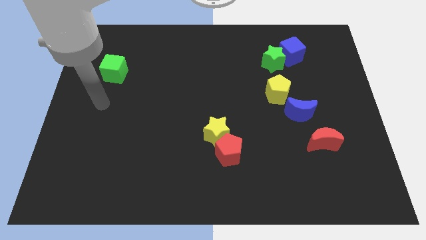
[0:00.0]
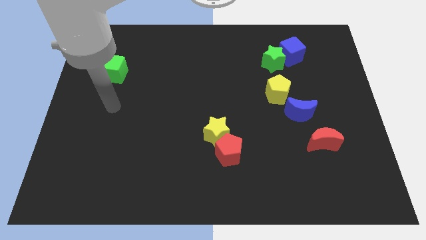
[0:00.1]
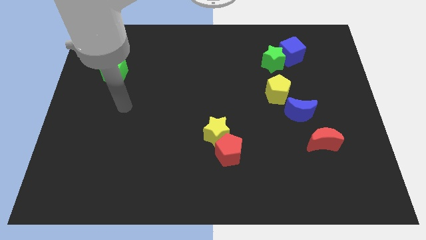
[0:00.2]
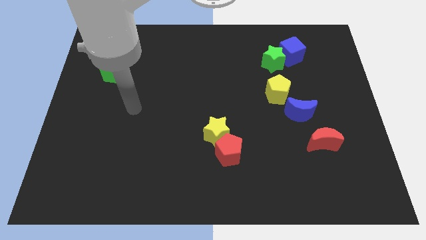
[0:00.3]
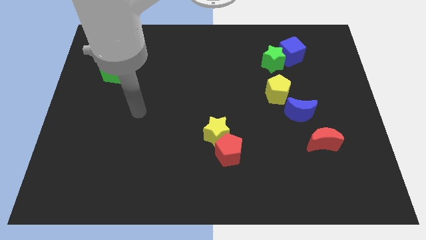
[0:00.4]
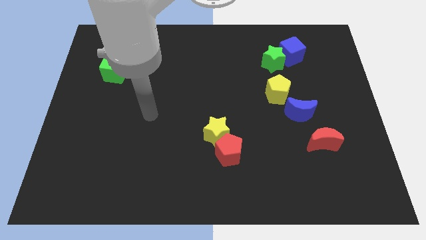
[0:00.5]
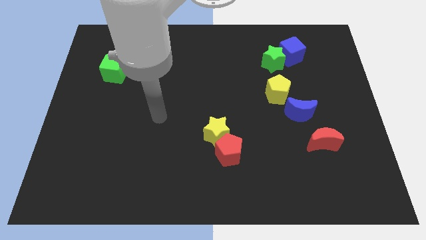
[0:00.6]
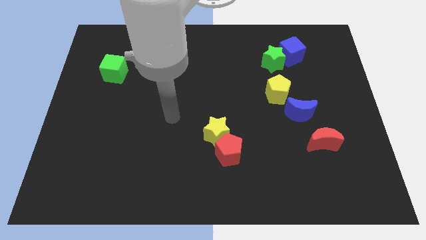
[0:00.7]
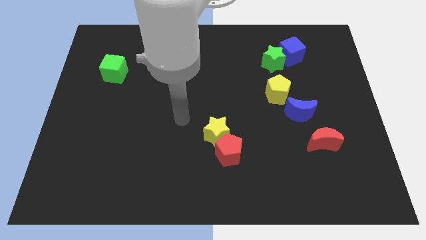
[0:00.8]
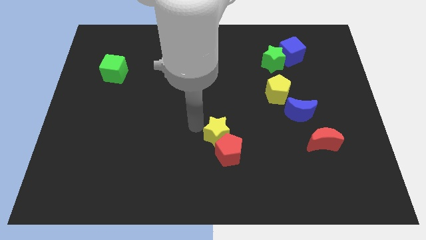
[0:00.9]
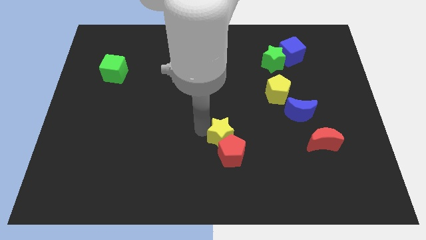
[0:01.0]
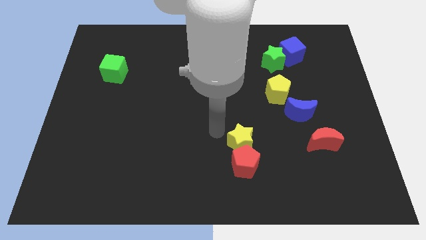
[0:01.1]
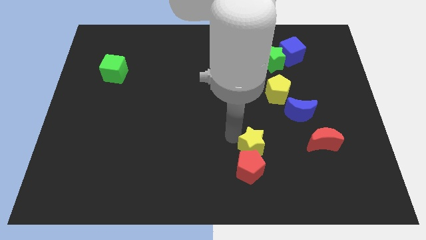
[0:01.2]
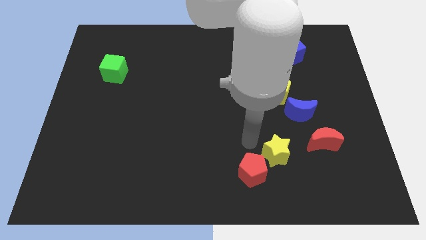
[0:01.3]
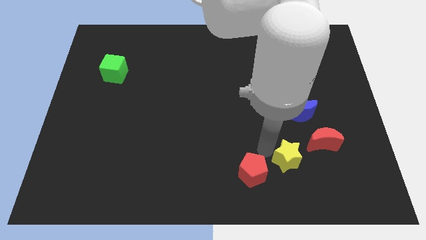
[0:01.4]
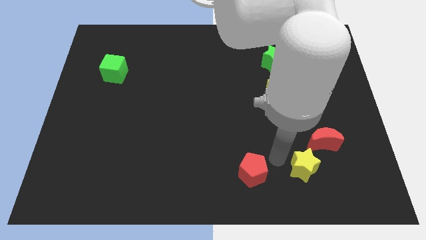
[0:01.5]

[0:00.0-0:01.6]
pull the red pentagon apart from the yellow star

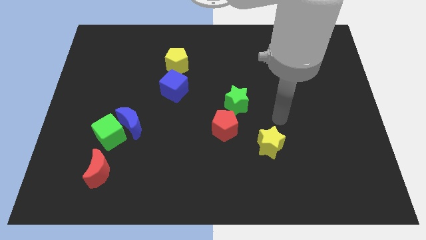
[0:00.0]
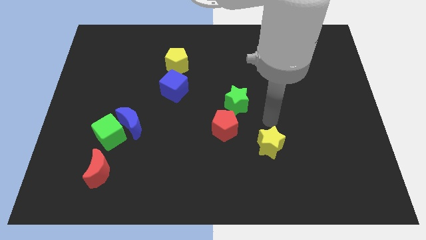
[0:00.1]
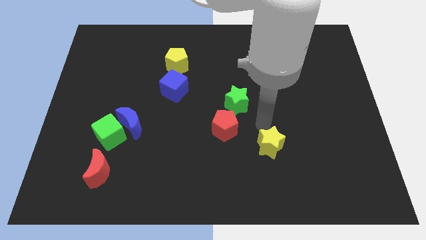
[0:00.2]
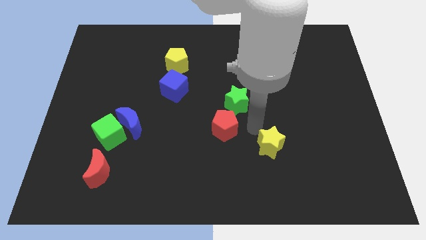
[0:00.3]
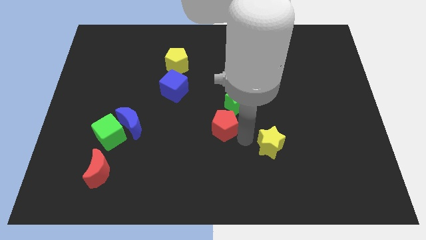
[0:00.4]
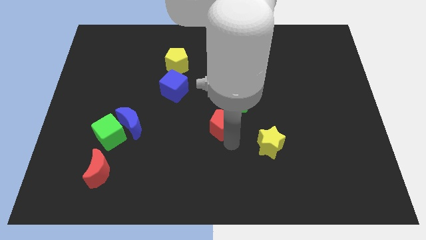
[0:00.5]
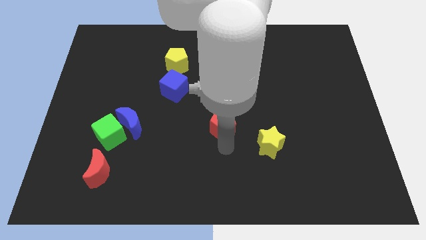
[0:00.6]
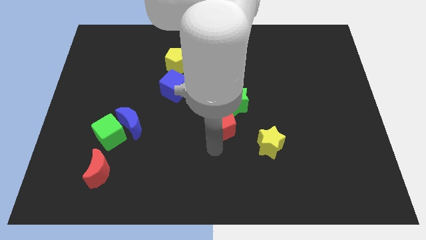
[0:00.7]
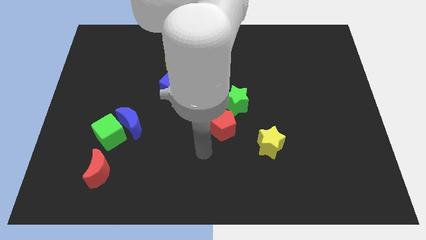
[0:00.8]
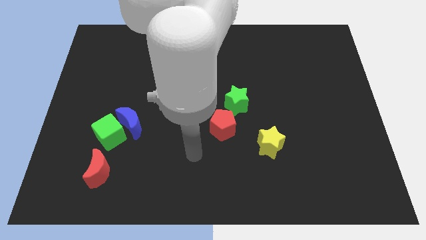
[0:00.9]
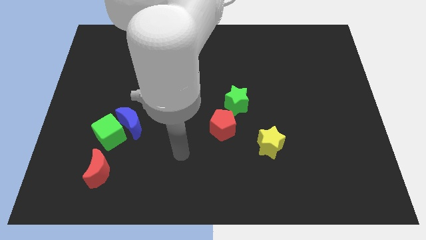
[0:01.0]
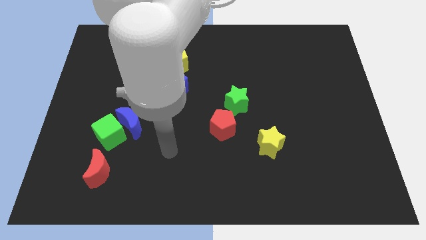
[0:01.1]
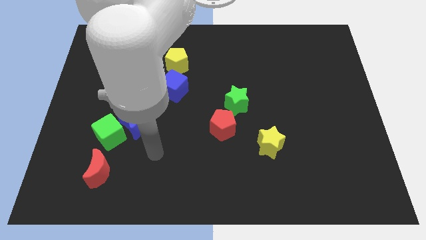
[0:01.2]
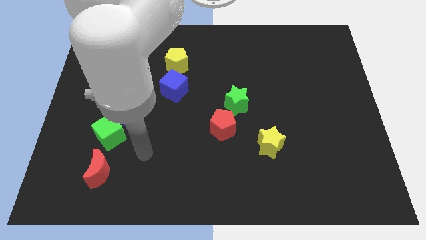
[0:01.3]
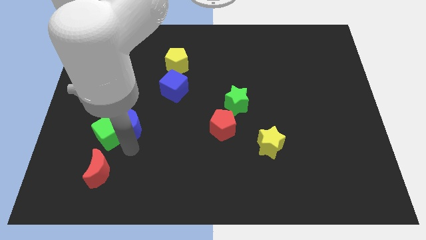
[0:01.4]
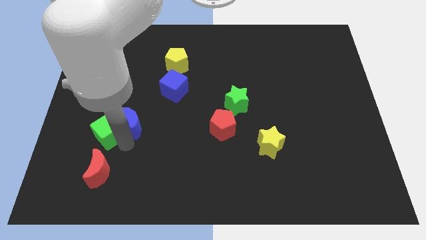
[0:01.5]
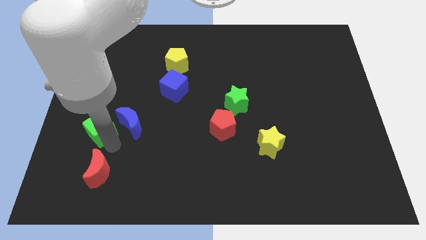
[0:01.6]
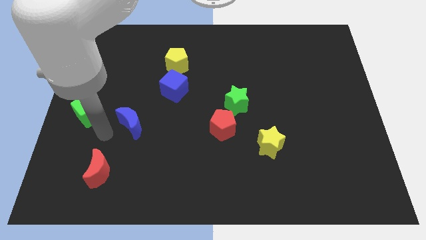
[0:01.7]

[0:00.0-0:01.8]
pull the blue moon apart from the green cube

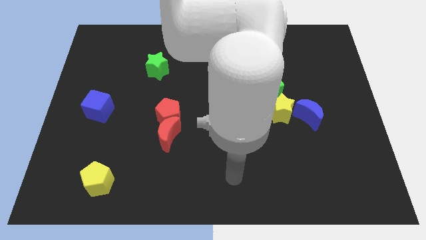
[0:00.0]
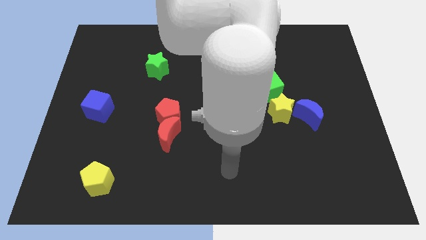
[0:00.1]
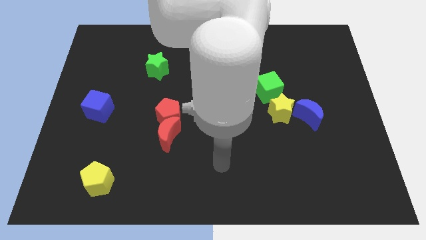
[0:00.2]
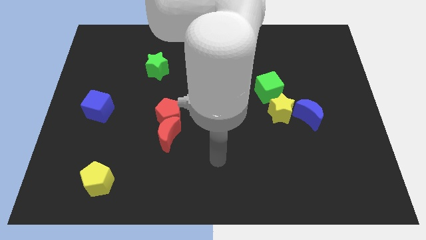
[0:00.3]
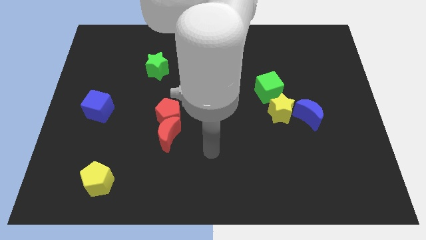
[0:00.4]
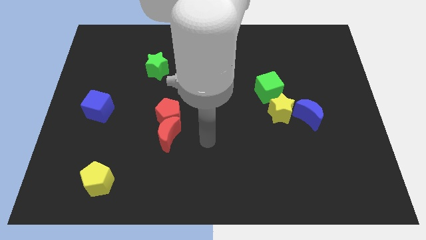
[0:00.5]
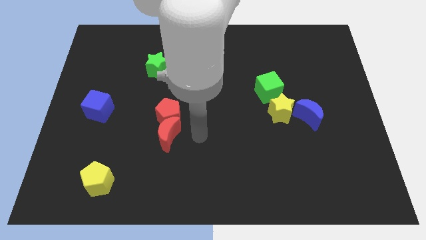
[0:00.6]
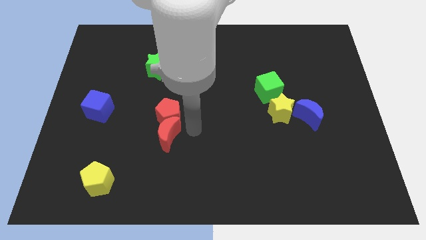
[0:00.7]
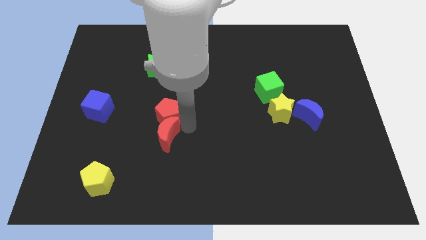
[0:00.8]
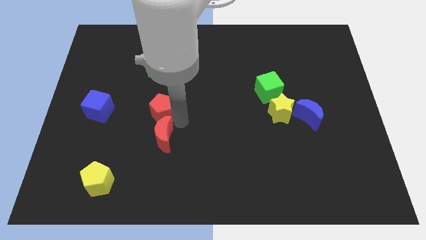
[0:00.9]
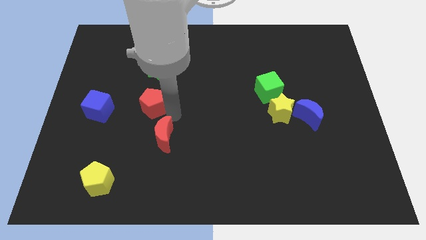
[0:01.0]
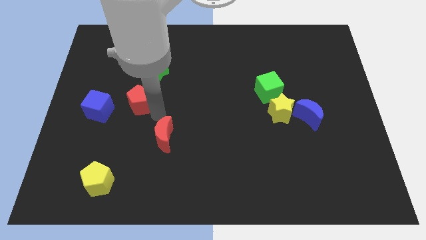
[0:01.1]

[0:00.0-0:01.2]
pull the red moon apart from the red pentagon

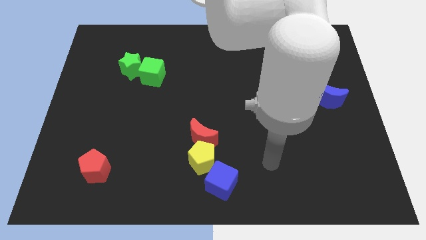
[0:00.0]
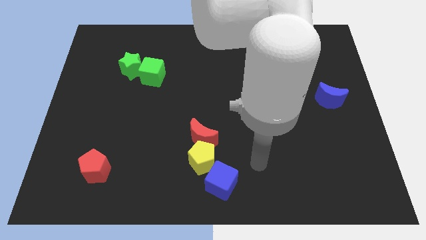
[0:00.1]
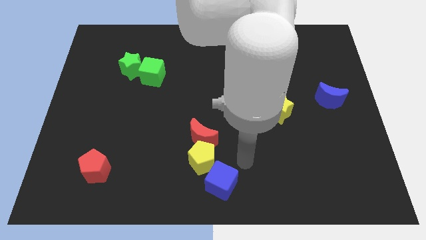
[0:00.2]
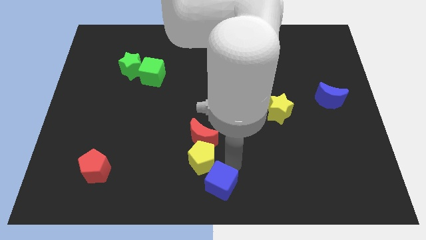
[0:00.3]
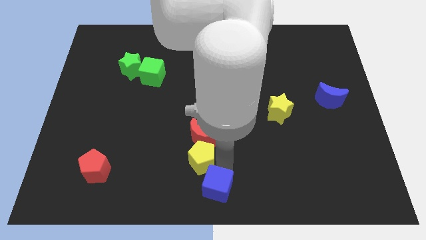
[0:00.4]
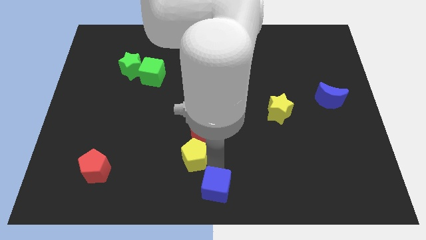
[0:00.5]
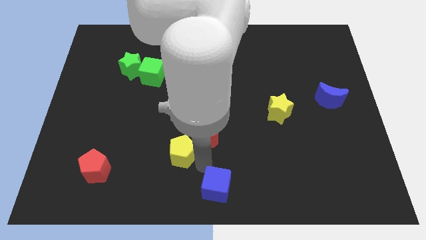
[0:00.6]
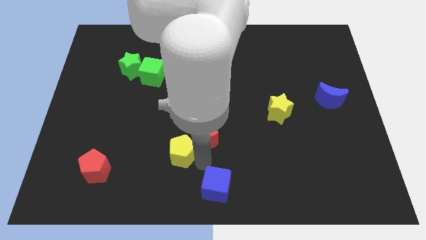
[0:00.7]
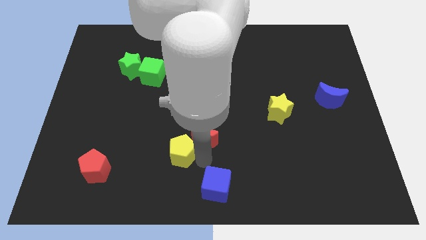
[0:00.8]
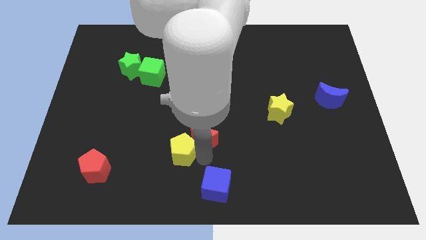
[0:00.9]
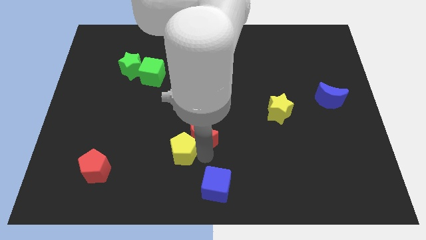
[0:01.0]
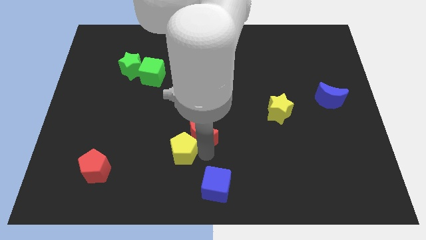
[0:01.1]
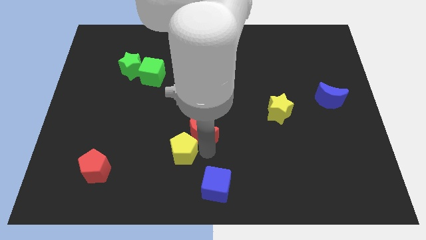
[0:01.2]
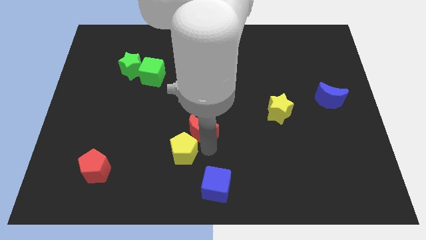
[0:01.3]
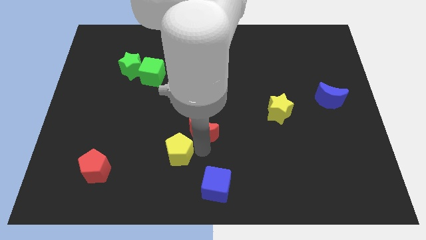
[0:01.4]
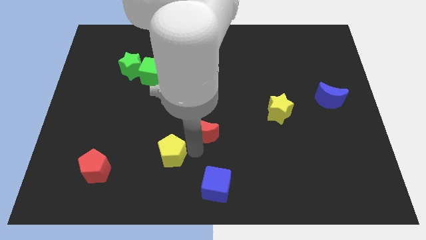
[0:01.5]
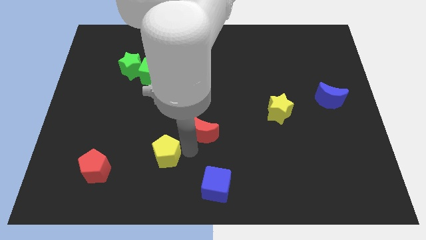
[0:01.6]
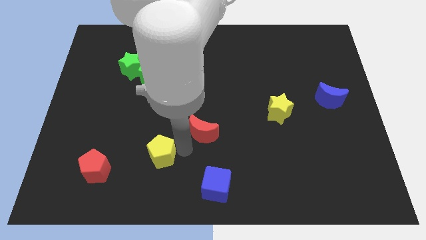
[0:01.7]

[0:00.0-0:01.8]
pull the red moon apart from the yellow pentagon

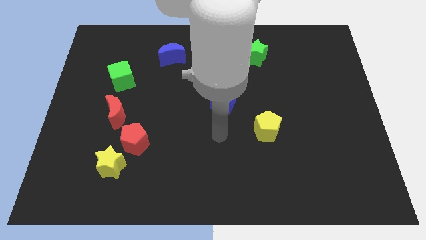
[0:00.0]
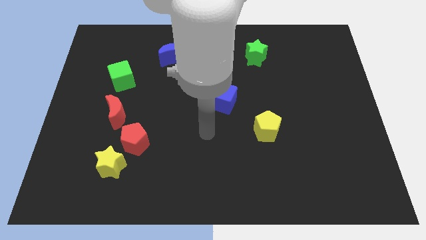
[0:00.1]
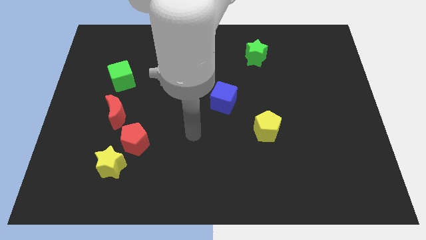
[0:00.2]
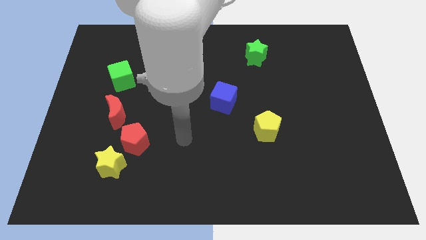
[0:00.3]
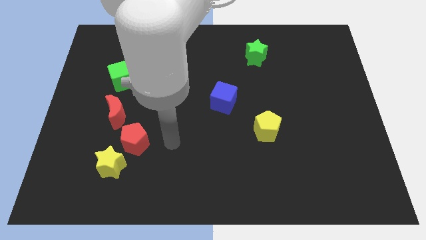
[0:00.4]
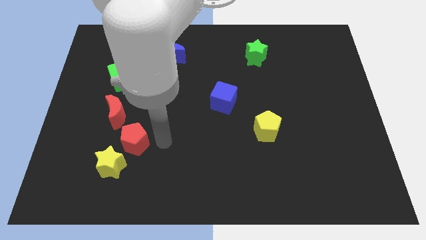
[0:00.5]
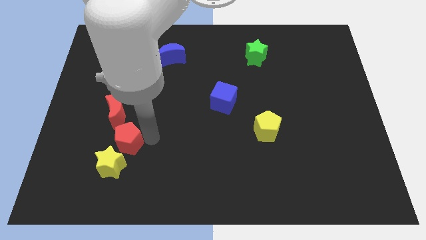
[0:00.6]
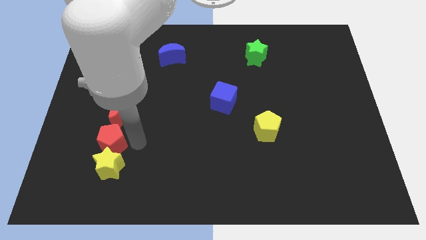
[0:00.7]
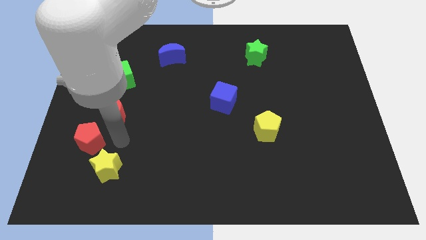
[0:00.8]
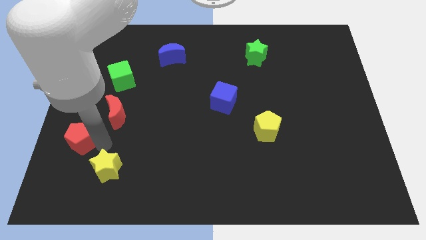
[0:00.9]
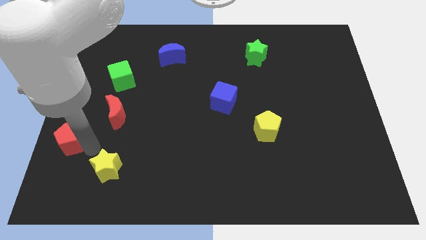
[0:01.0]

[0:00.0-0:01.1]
move the yellow star away from the red pentagon

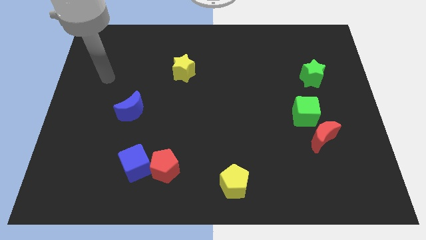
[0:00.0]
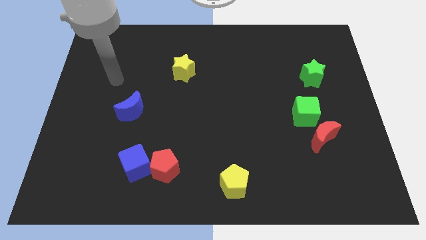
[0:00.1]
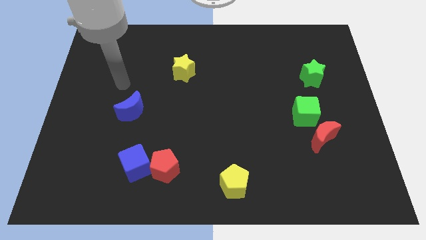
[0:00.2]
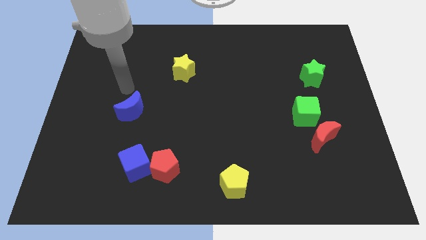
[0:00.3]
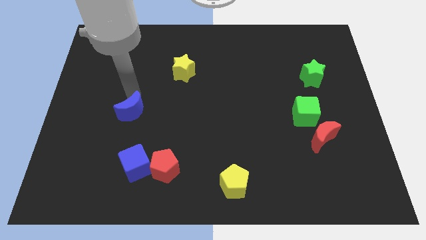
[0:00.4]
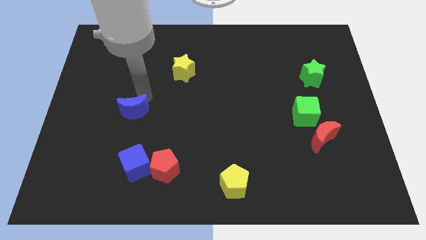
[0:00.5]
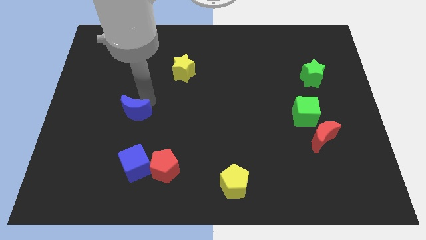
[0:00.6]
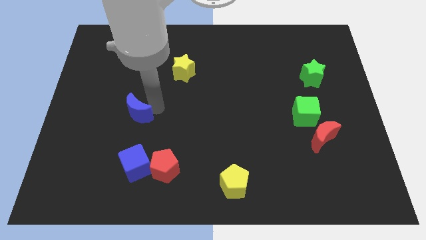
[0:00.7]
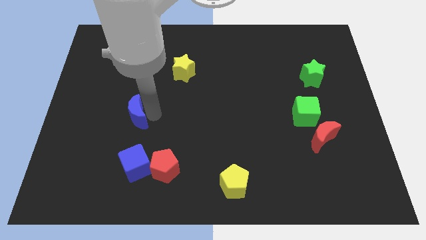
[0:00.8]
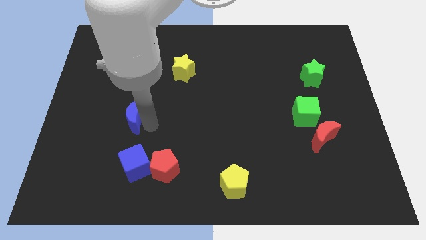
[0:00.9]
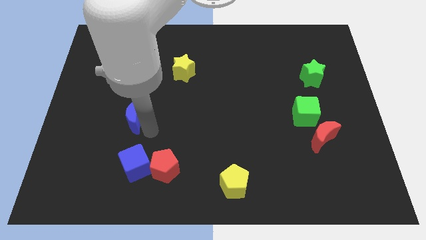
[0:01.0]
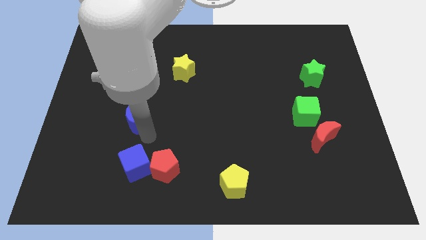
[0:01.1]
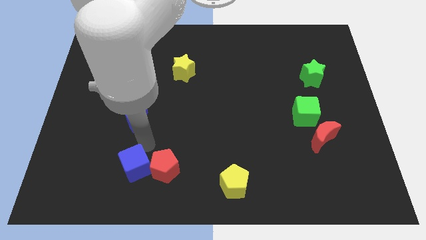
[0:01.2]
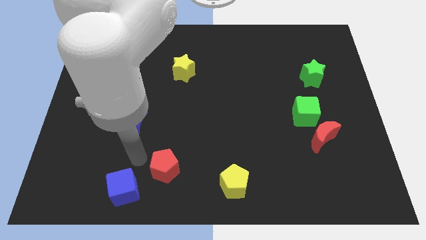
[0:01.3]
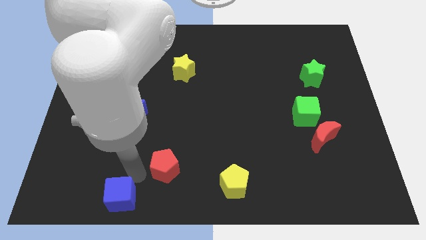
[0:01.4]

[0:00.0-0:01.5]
separate the red pentagon from the blue cube

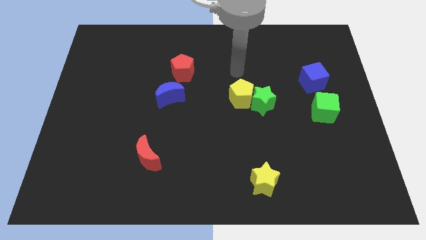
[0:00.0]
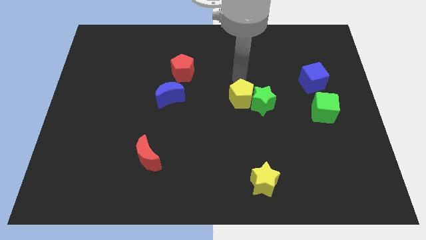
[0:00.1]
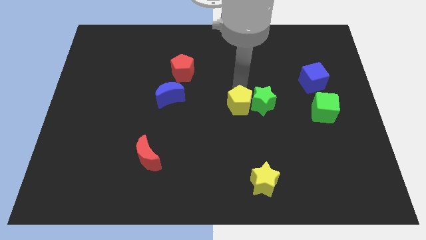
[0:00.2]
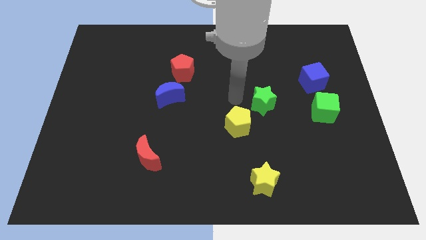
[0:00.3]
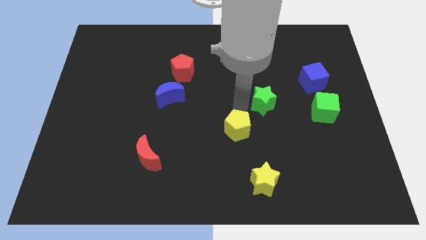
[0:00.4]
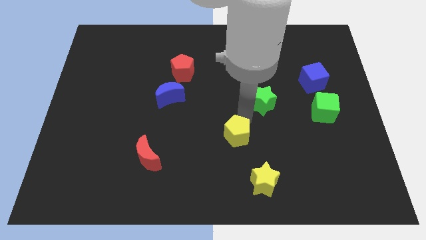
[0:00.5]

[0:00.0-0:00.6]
pull the green star apart from the yellow pentagon
